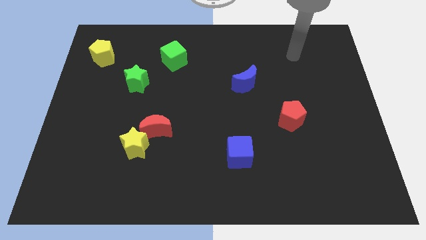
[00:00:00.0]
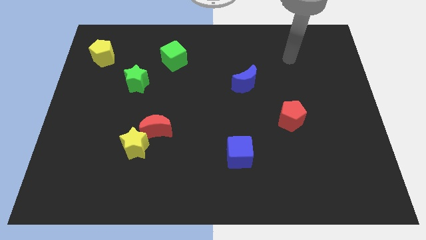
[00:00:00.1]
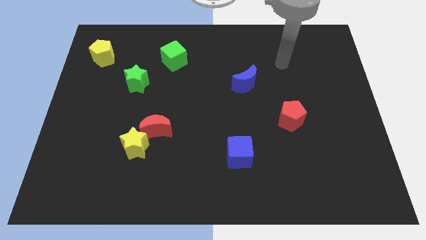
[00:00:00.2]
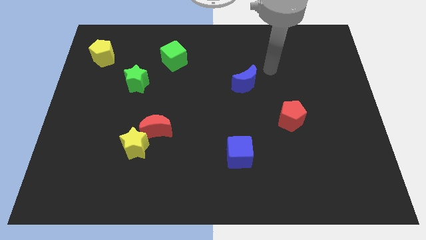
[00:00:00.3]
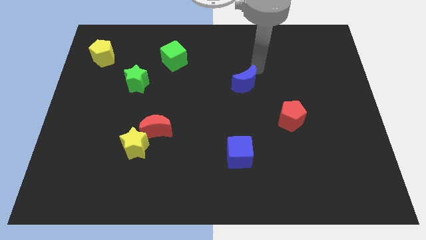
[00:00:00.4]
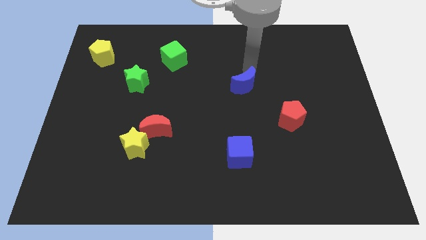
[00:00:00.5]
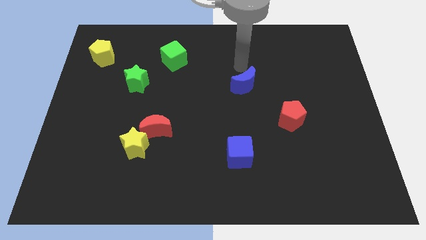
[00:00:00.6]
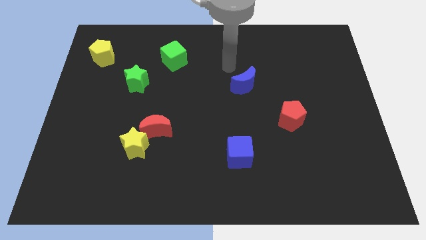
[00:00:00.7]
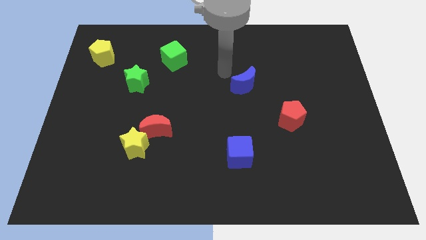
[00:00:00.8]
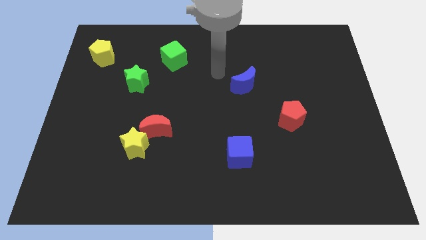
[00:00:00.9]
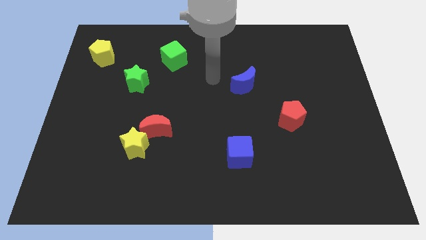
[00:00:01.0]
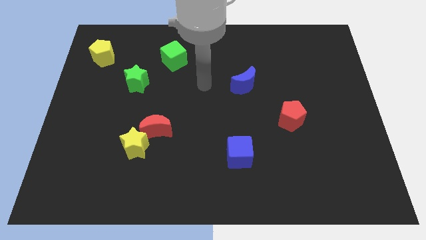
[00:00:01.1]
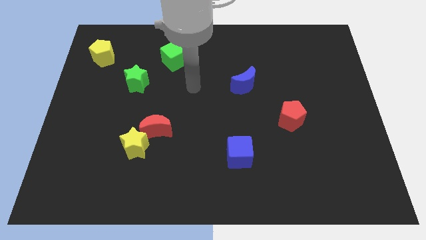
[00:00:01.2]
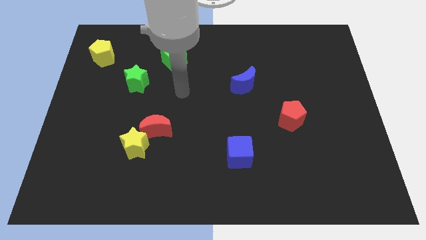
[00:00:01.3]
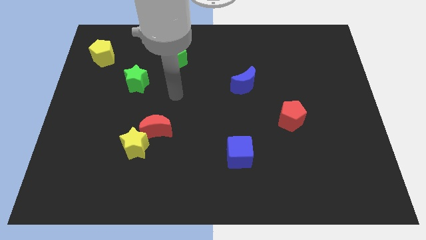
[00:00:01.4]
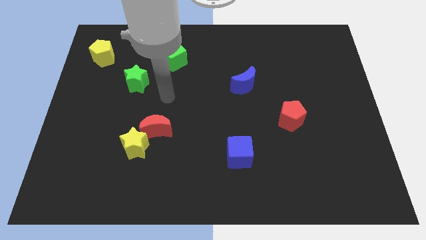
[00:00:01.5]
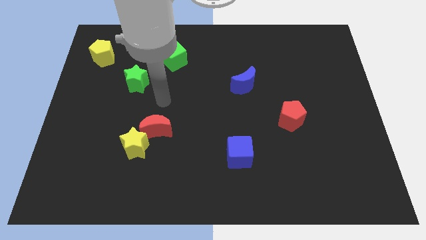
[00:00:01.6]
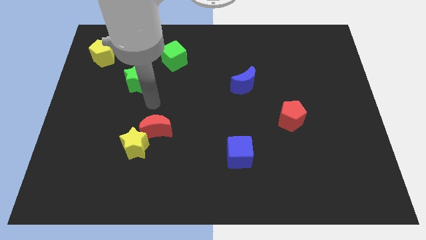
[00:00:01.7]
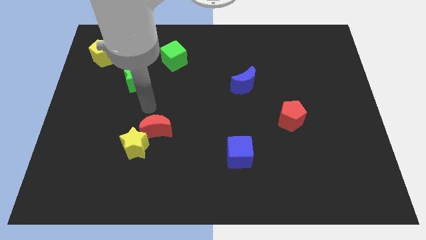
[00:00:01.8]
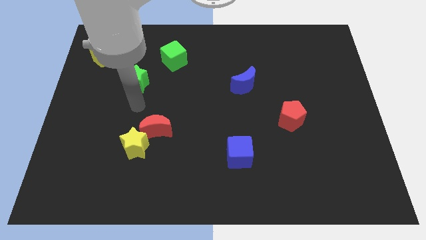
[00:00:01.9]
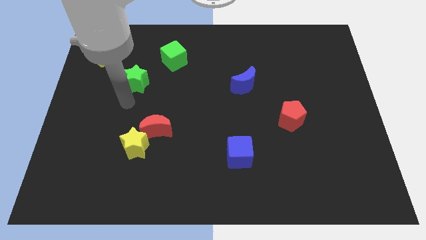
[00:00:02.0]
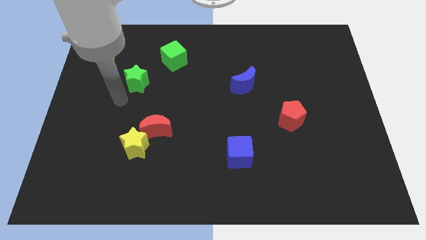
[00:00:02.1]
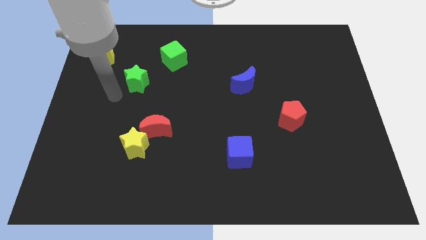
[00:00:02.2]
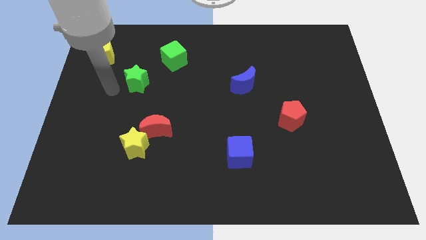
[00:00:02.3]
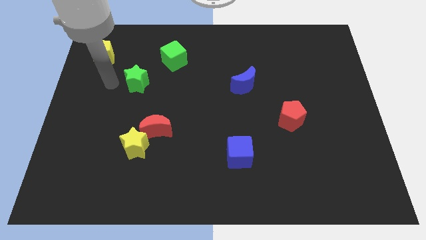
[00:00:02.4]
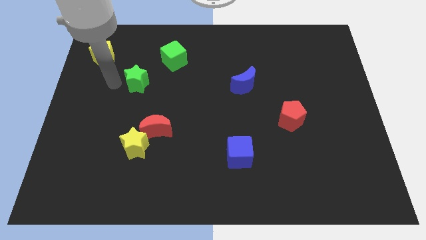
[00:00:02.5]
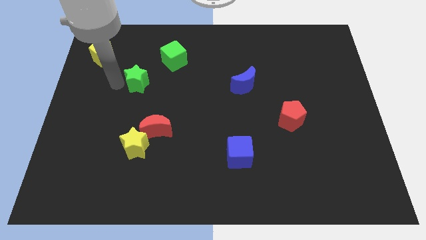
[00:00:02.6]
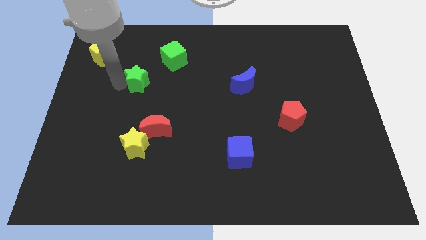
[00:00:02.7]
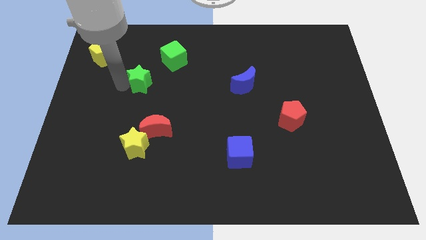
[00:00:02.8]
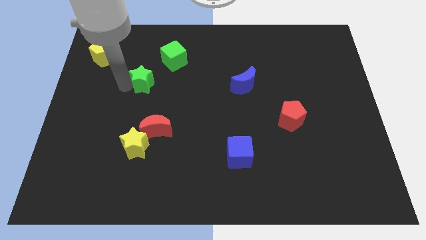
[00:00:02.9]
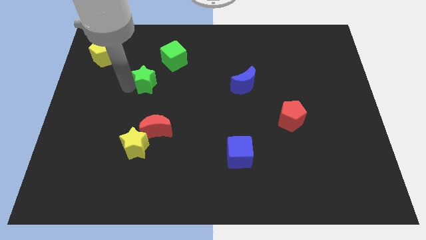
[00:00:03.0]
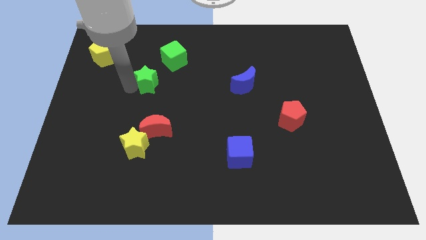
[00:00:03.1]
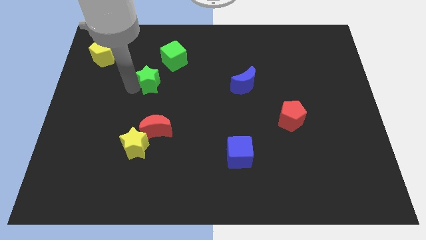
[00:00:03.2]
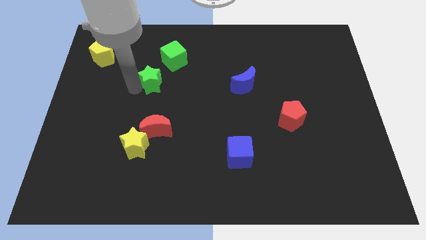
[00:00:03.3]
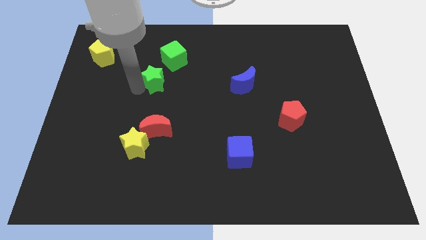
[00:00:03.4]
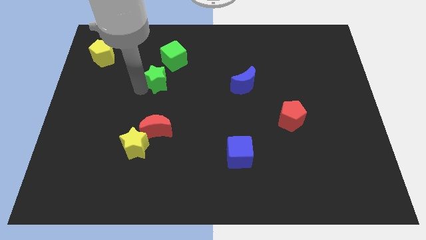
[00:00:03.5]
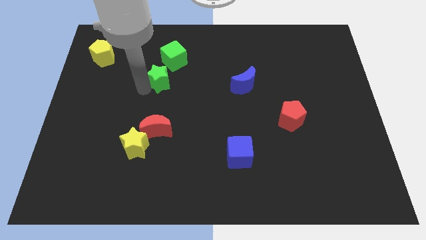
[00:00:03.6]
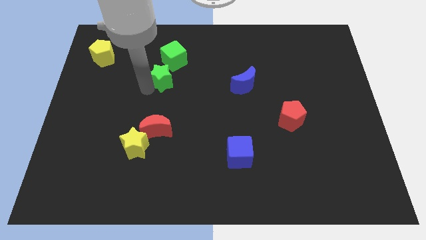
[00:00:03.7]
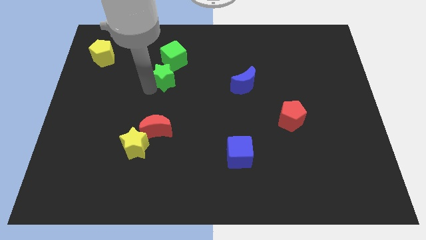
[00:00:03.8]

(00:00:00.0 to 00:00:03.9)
slide the green star a little bit right

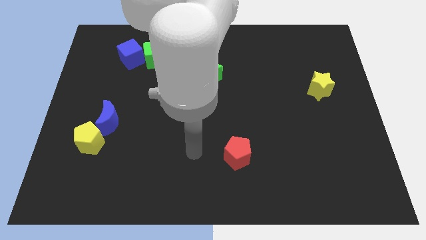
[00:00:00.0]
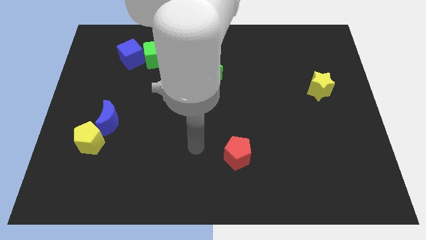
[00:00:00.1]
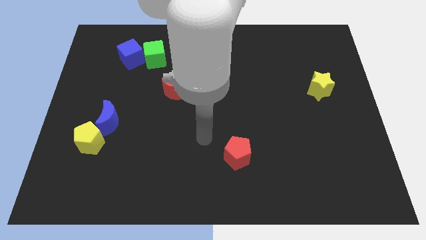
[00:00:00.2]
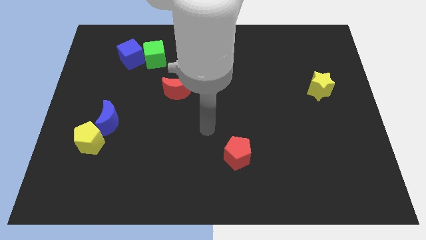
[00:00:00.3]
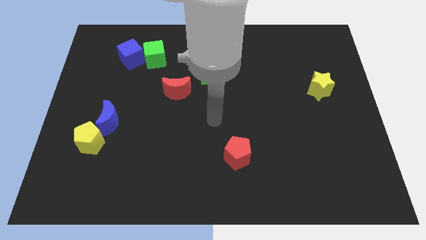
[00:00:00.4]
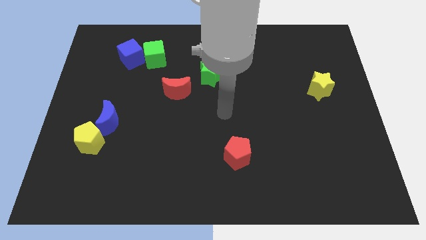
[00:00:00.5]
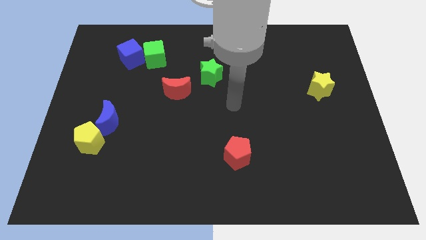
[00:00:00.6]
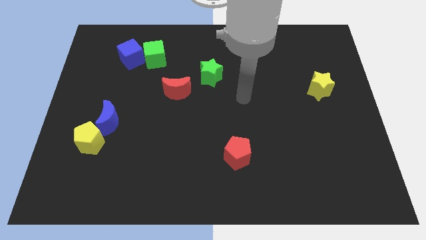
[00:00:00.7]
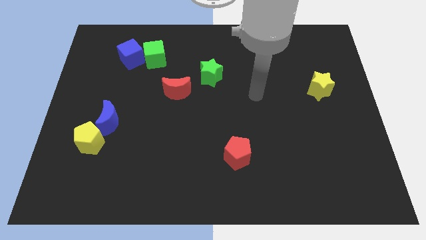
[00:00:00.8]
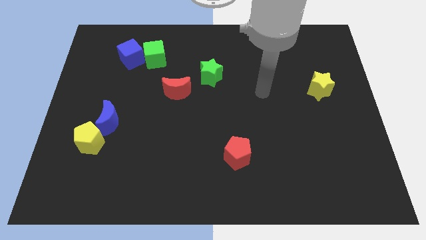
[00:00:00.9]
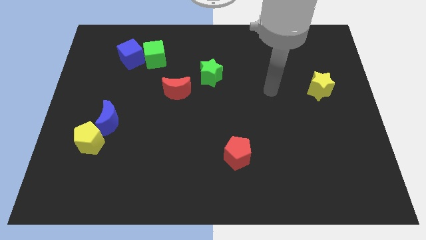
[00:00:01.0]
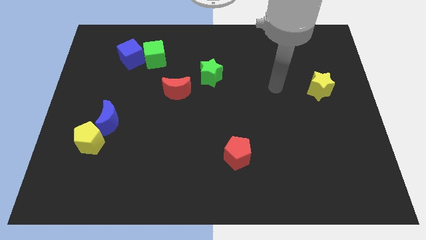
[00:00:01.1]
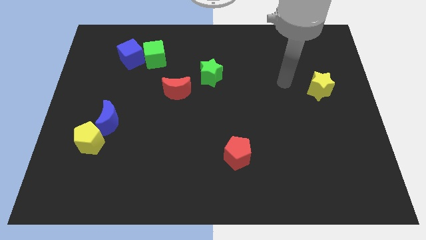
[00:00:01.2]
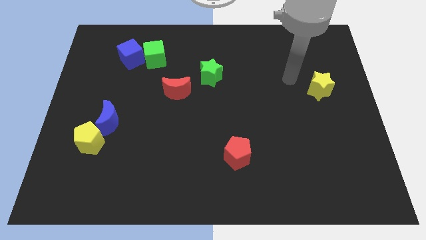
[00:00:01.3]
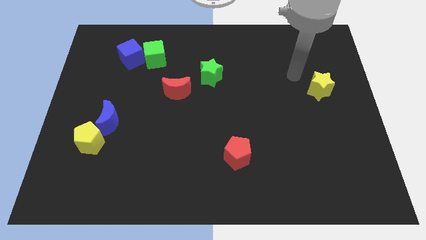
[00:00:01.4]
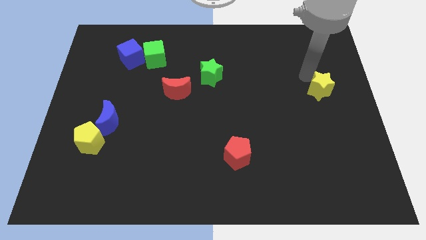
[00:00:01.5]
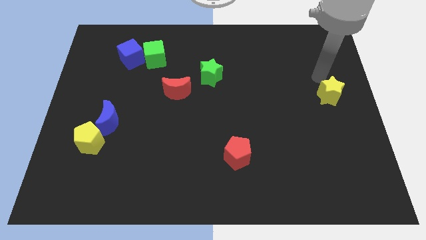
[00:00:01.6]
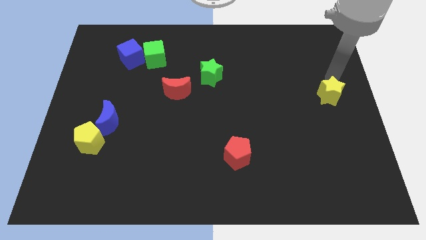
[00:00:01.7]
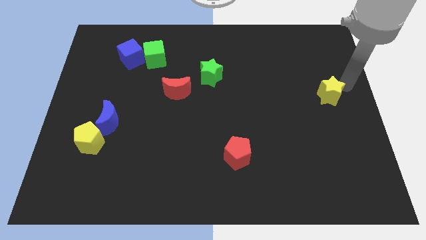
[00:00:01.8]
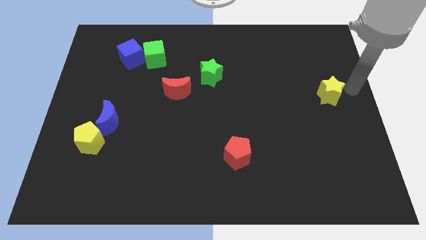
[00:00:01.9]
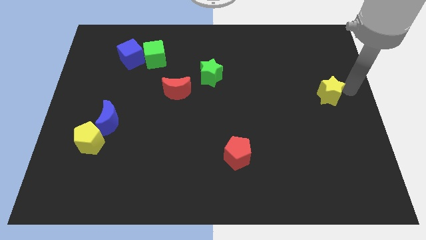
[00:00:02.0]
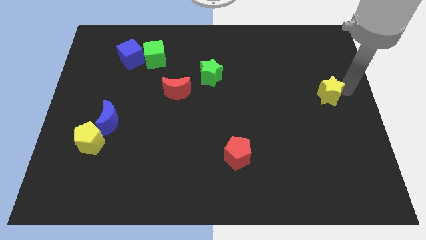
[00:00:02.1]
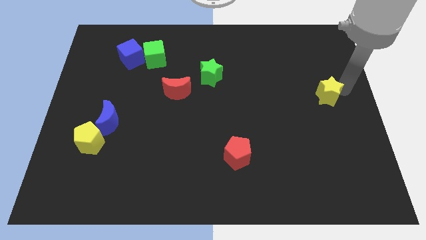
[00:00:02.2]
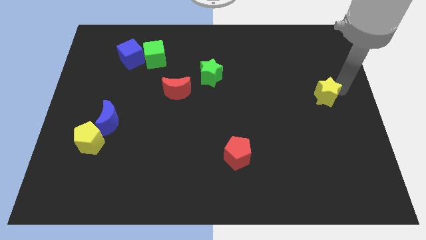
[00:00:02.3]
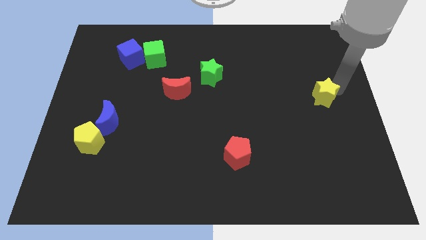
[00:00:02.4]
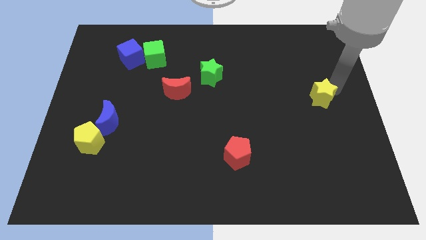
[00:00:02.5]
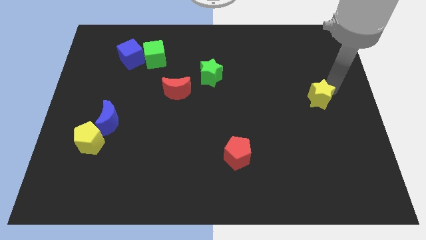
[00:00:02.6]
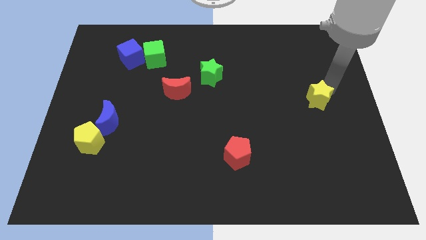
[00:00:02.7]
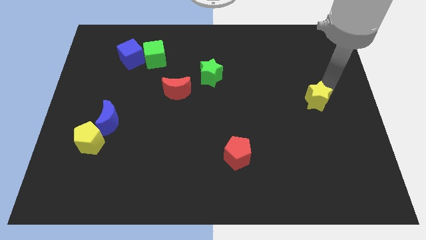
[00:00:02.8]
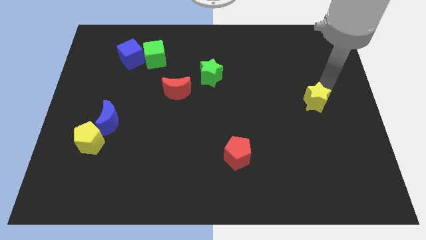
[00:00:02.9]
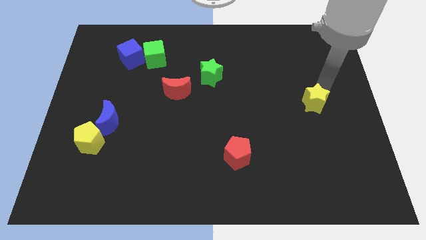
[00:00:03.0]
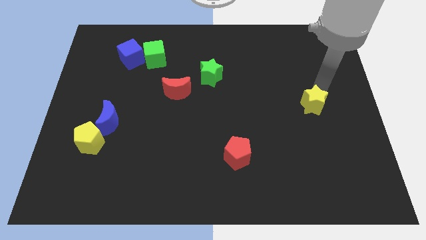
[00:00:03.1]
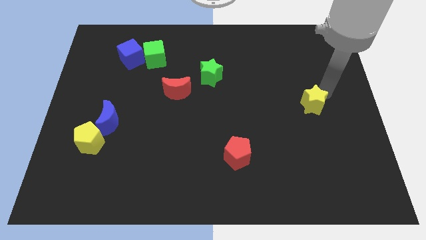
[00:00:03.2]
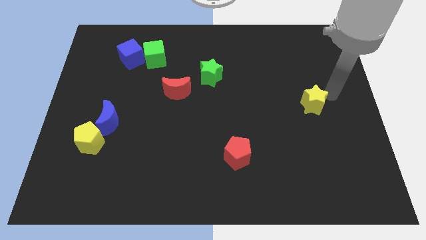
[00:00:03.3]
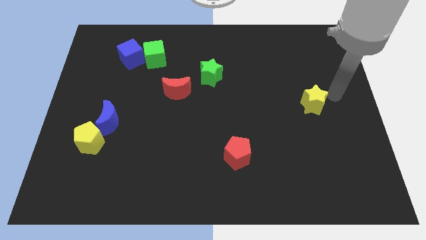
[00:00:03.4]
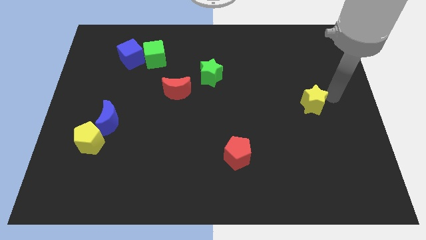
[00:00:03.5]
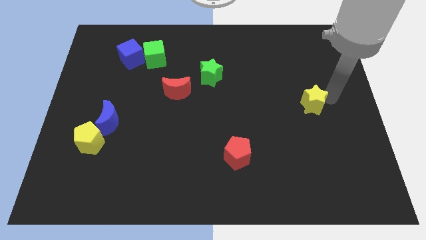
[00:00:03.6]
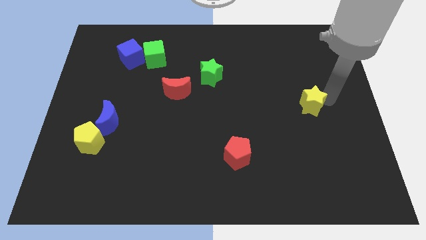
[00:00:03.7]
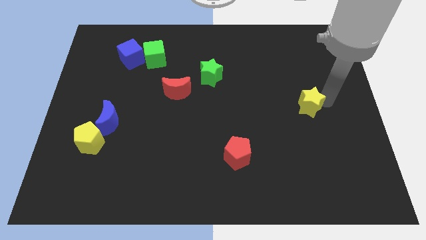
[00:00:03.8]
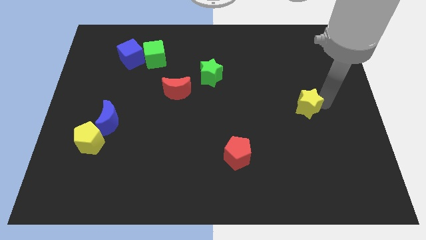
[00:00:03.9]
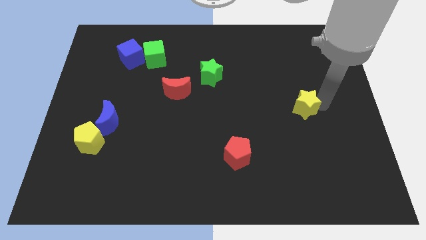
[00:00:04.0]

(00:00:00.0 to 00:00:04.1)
push the yellow star a bit diagonally down and to the left
